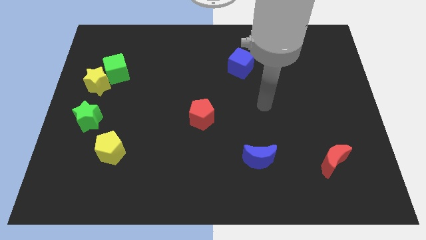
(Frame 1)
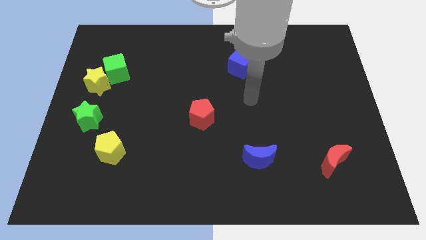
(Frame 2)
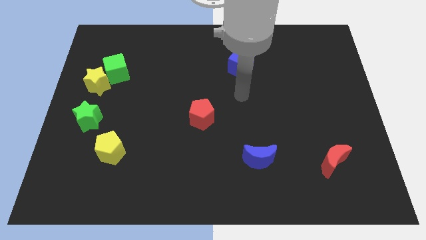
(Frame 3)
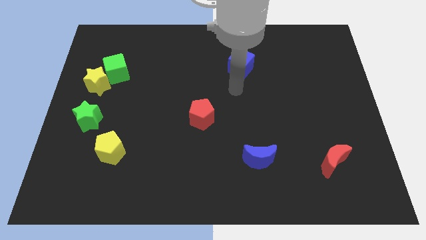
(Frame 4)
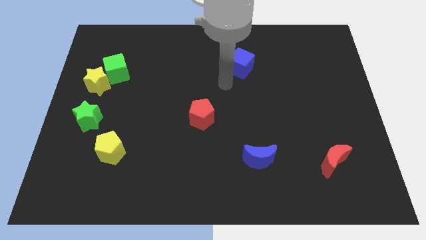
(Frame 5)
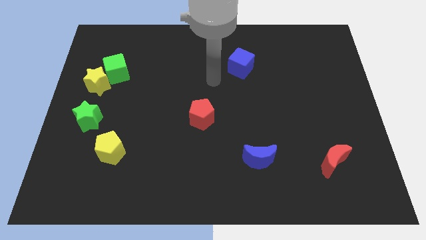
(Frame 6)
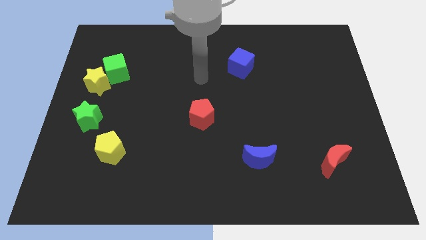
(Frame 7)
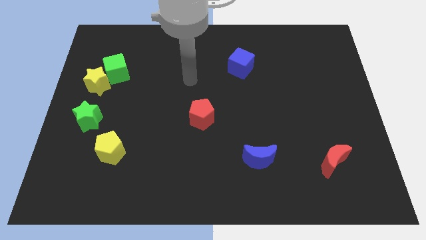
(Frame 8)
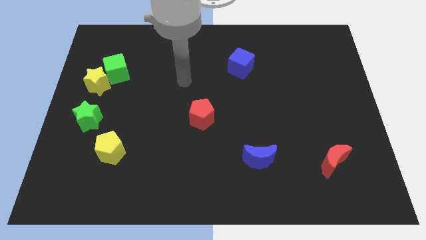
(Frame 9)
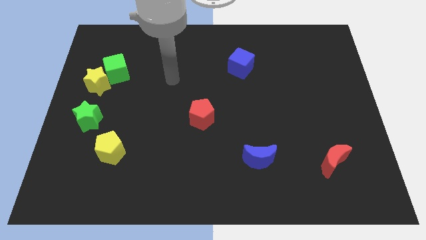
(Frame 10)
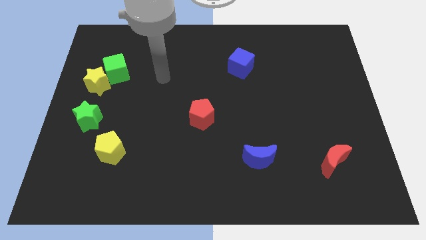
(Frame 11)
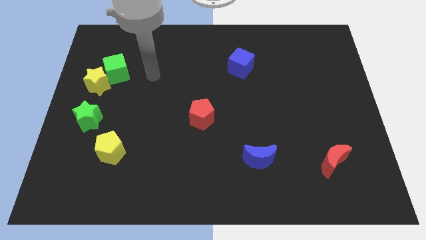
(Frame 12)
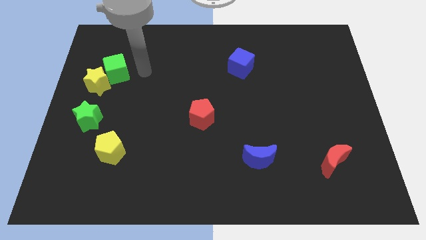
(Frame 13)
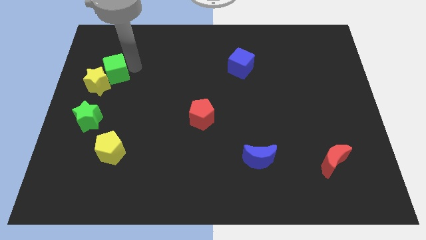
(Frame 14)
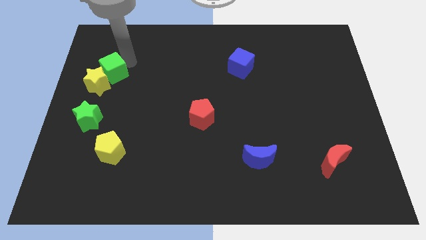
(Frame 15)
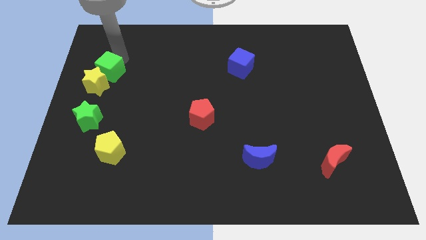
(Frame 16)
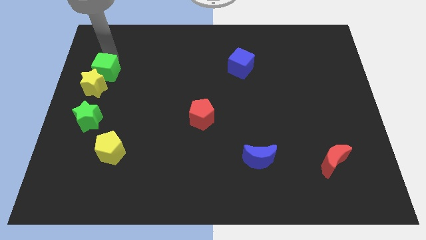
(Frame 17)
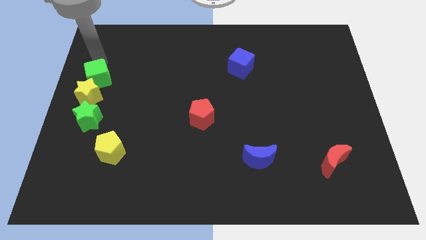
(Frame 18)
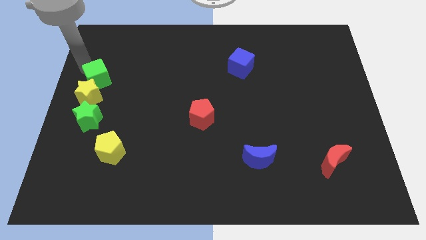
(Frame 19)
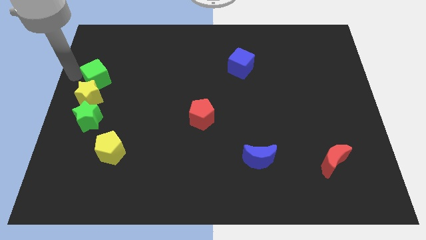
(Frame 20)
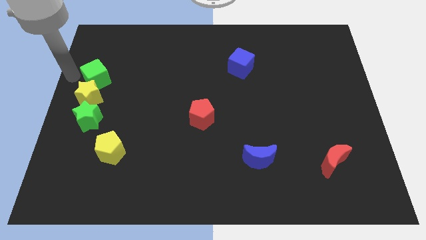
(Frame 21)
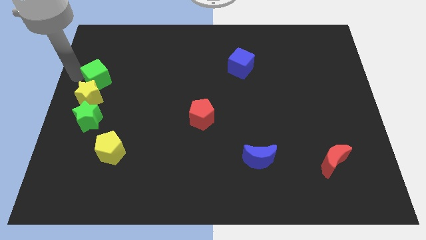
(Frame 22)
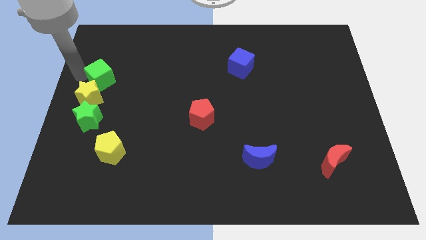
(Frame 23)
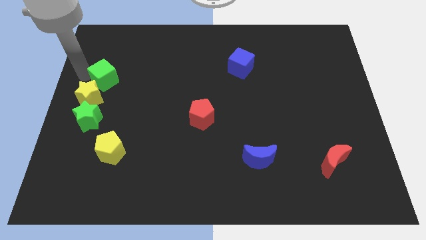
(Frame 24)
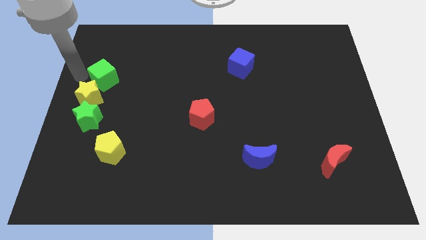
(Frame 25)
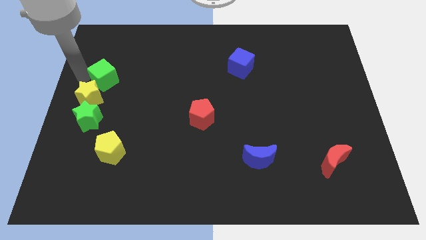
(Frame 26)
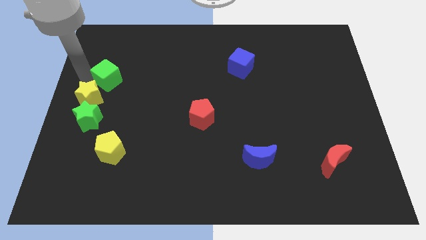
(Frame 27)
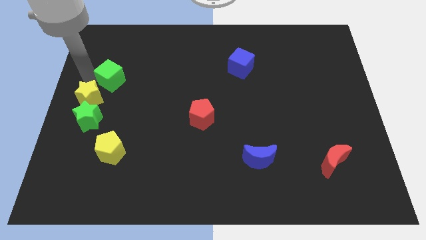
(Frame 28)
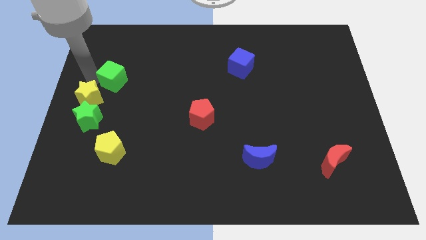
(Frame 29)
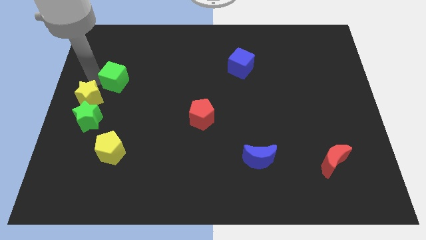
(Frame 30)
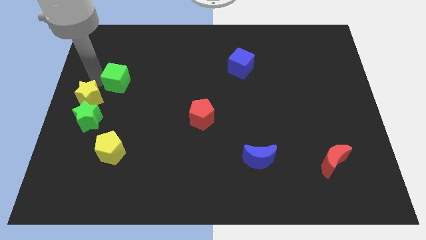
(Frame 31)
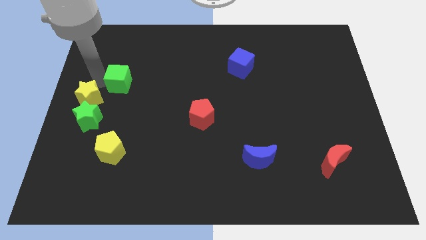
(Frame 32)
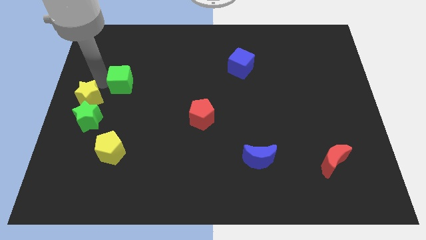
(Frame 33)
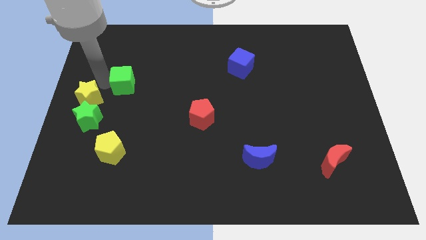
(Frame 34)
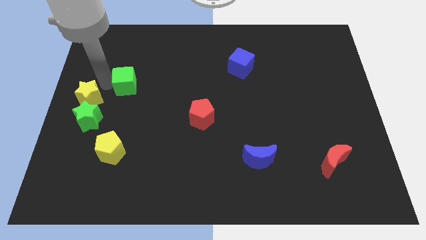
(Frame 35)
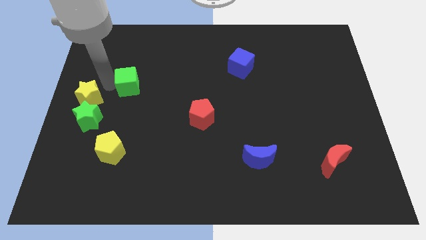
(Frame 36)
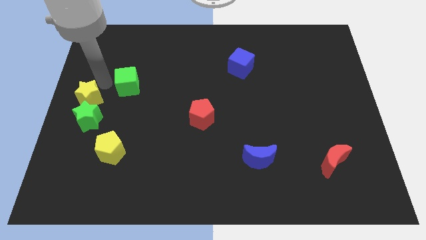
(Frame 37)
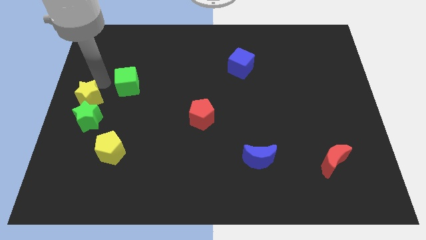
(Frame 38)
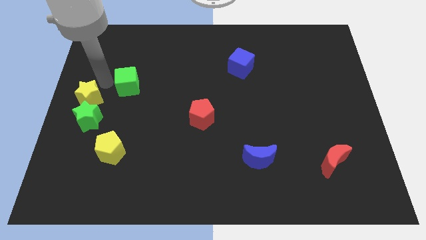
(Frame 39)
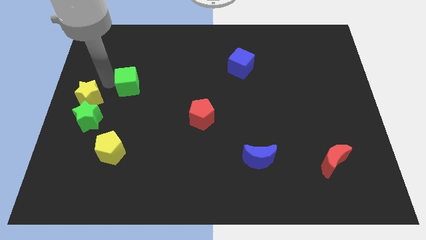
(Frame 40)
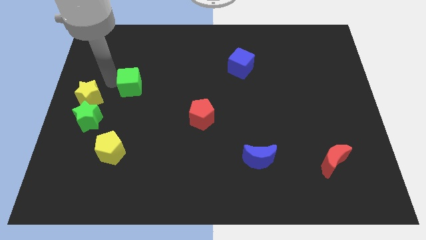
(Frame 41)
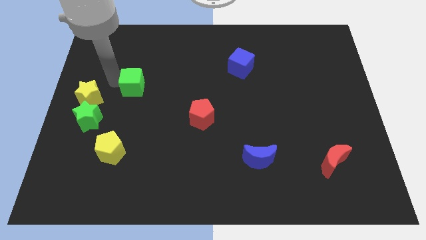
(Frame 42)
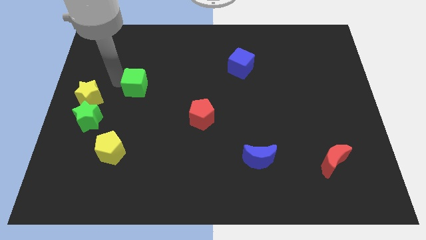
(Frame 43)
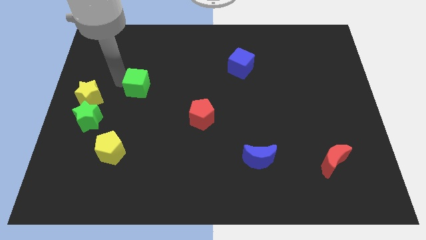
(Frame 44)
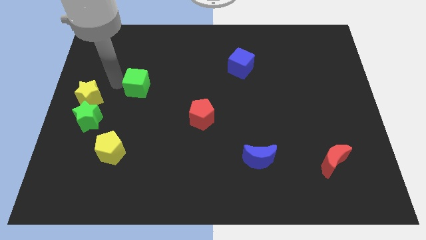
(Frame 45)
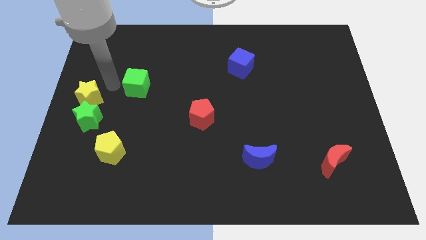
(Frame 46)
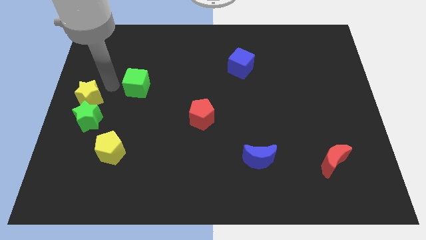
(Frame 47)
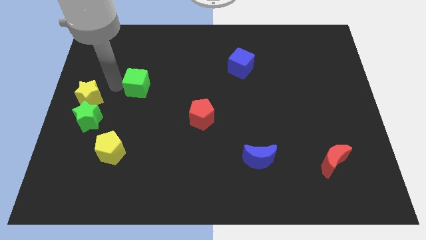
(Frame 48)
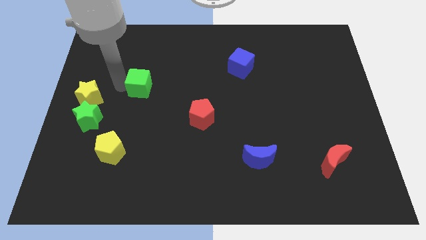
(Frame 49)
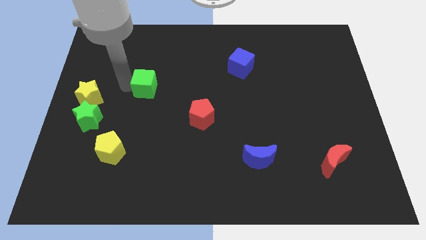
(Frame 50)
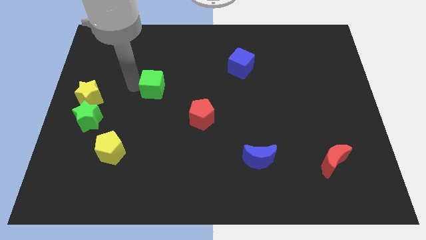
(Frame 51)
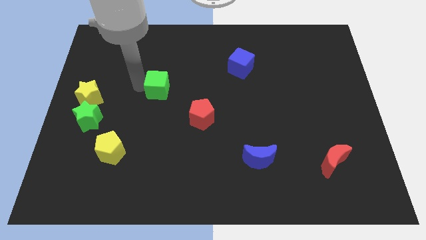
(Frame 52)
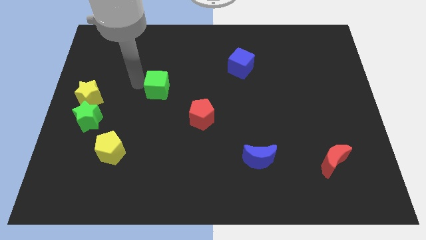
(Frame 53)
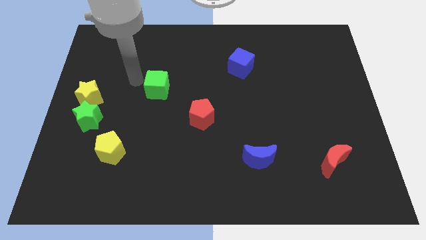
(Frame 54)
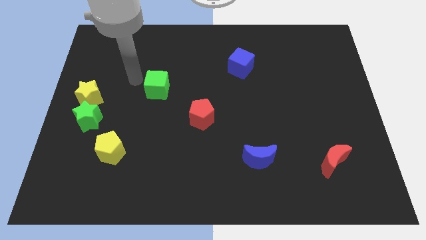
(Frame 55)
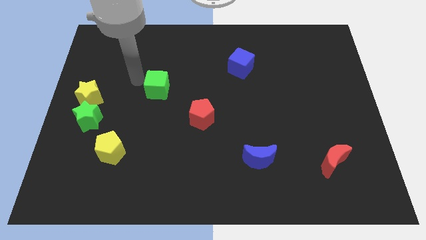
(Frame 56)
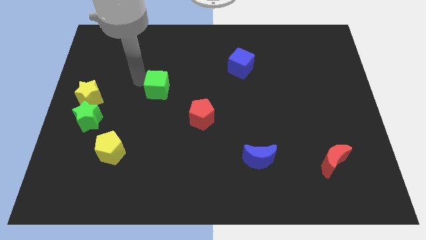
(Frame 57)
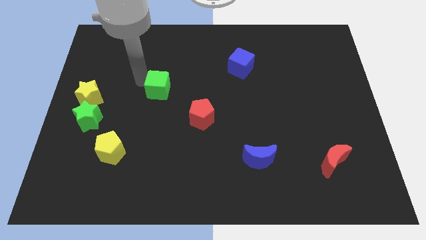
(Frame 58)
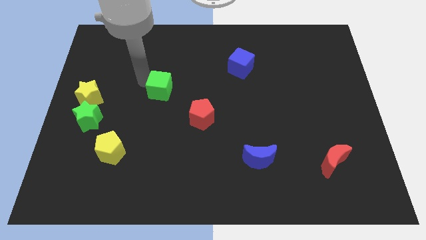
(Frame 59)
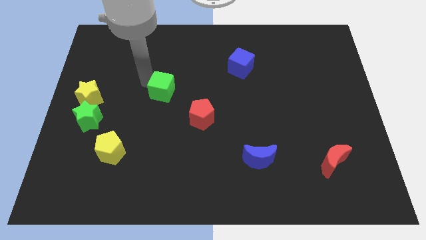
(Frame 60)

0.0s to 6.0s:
slide the green cube to the top left side of the red pentagon

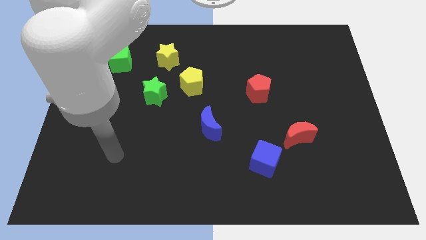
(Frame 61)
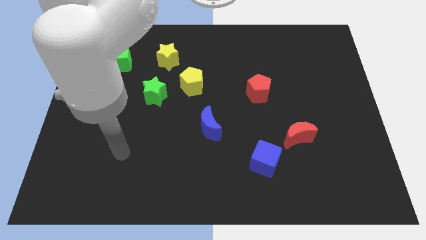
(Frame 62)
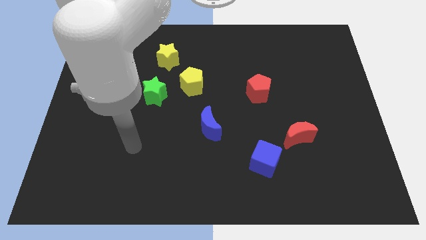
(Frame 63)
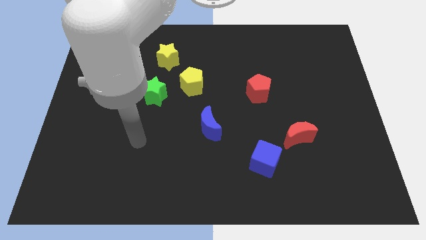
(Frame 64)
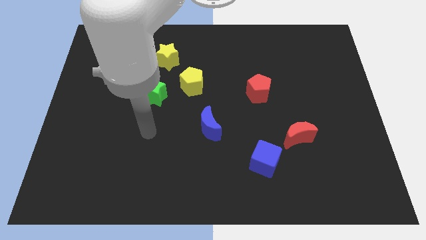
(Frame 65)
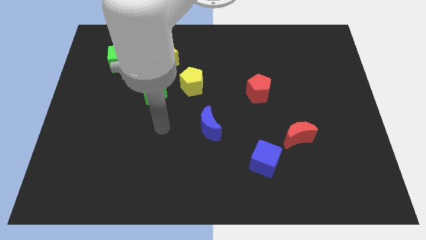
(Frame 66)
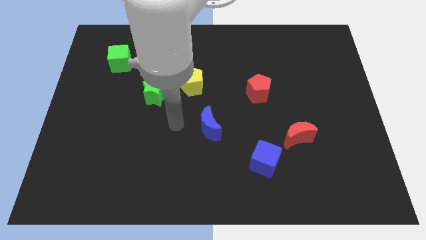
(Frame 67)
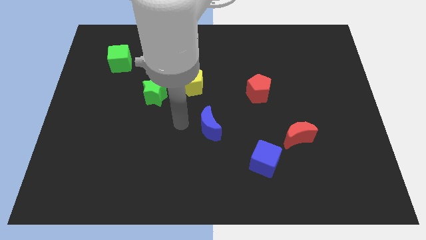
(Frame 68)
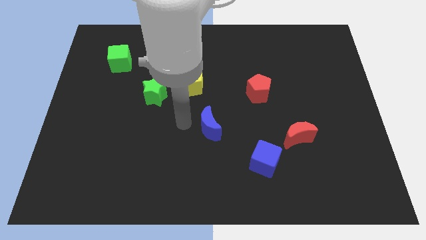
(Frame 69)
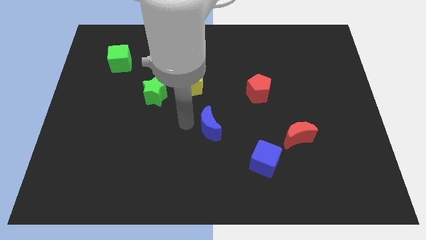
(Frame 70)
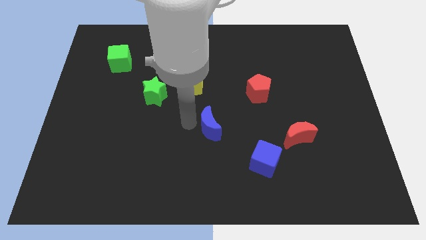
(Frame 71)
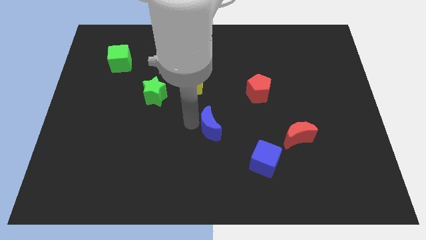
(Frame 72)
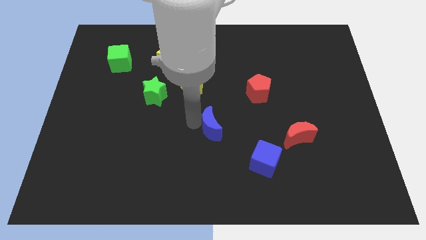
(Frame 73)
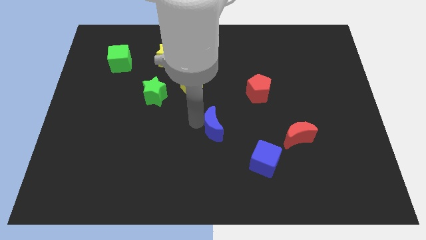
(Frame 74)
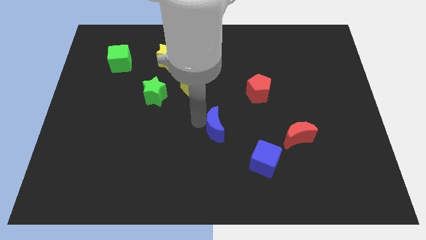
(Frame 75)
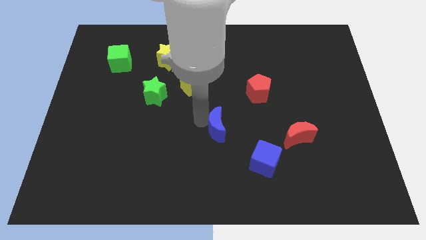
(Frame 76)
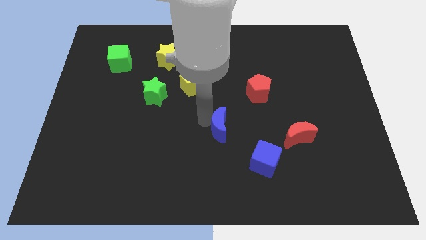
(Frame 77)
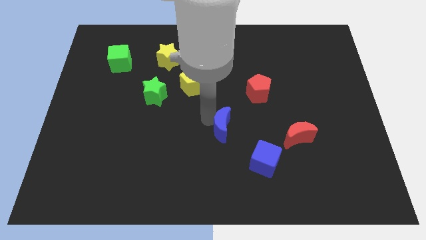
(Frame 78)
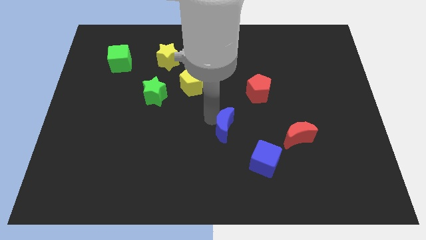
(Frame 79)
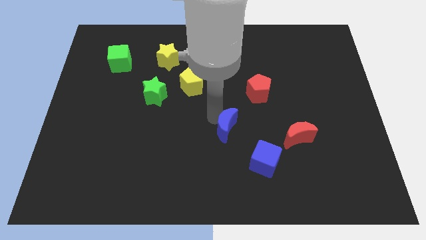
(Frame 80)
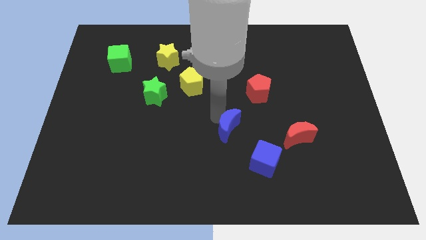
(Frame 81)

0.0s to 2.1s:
slide the blue moon left of the red moon

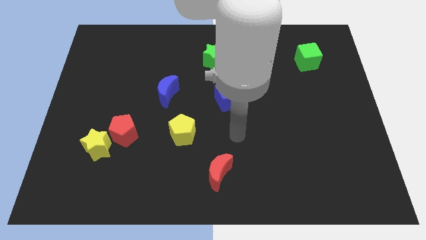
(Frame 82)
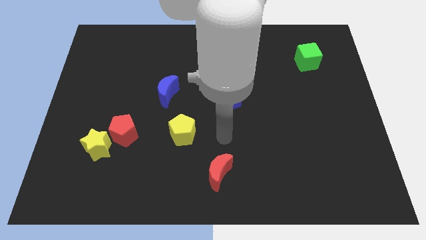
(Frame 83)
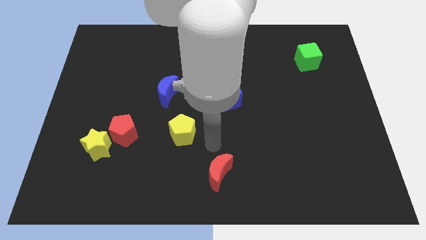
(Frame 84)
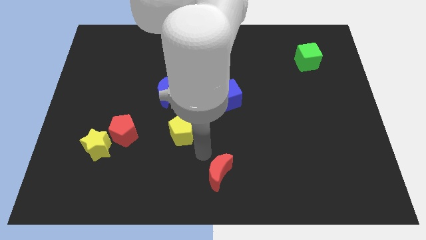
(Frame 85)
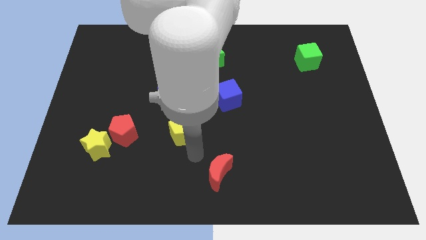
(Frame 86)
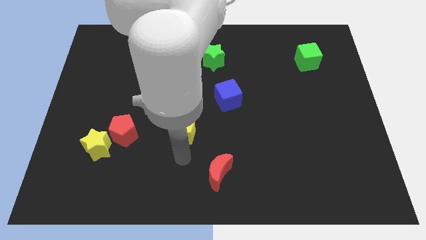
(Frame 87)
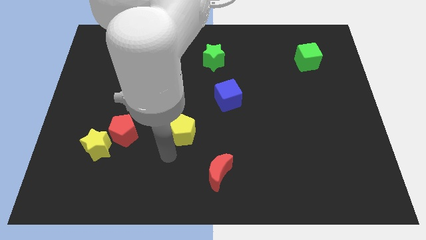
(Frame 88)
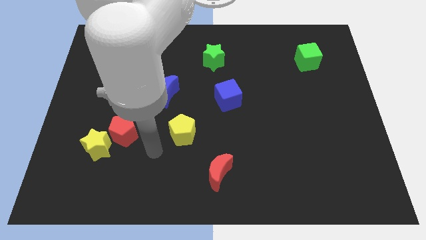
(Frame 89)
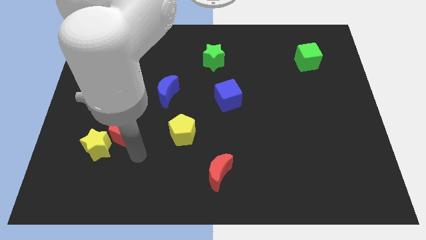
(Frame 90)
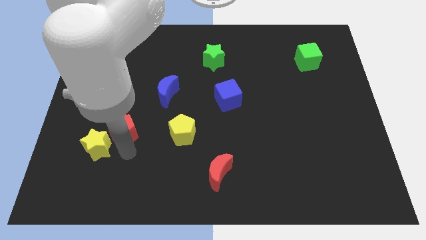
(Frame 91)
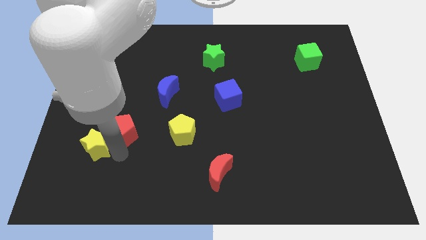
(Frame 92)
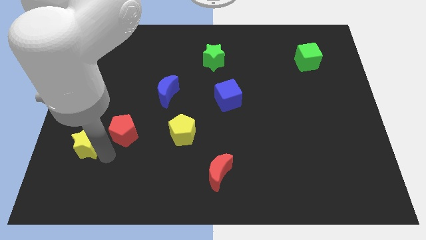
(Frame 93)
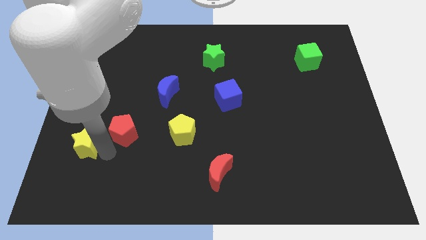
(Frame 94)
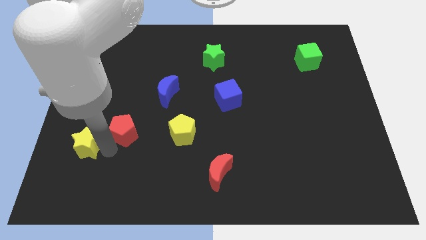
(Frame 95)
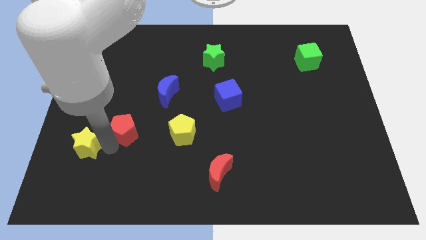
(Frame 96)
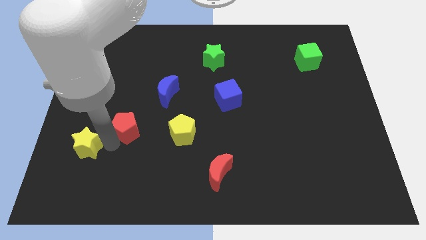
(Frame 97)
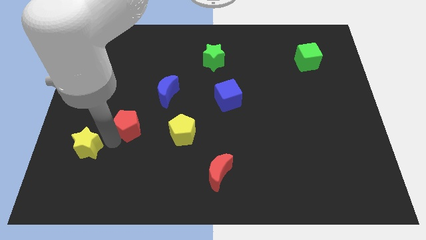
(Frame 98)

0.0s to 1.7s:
slide the red pentagon to the bottom left of the blue moon
